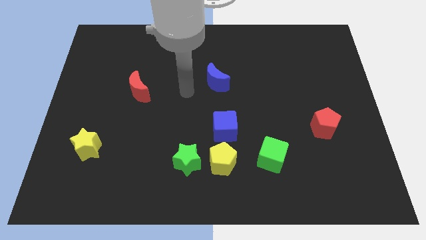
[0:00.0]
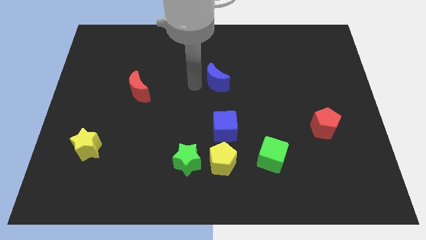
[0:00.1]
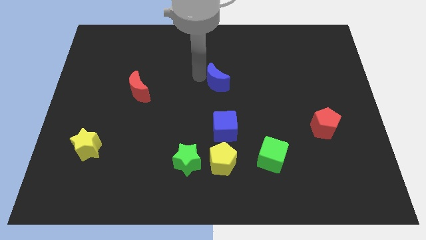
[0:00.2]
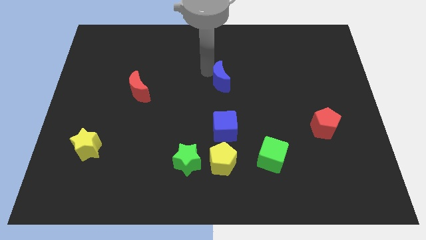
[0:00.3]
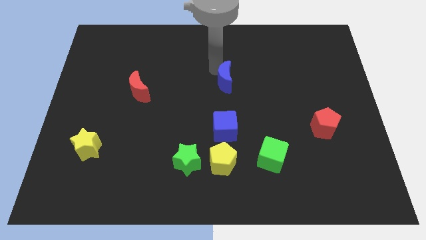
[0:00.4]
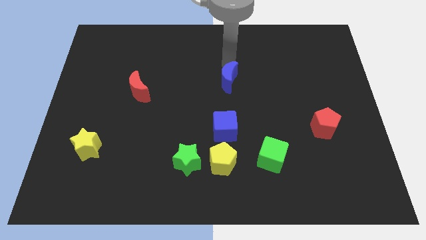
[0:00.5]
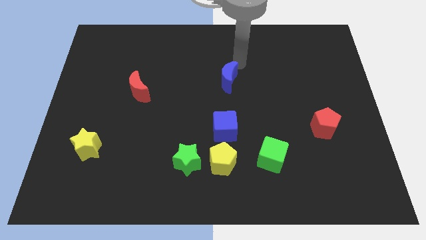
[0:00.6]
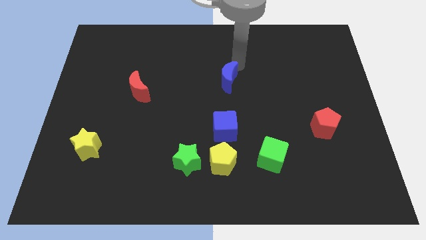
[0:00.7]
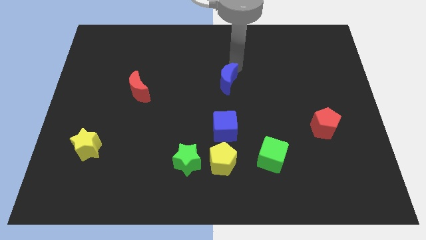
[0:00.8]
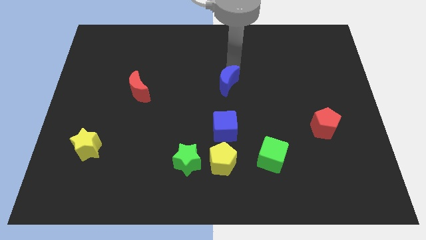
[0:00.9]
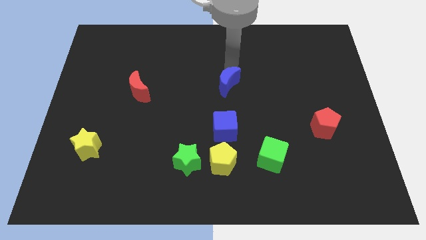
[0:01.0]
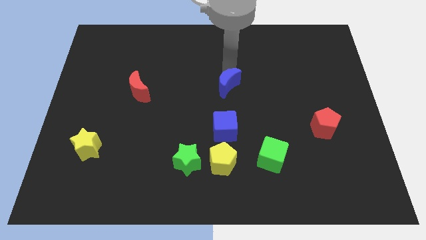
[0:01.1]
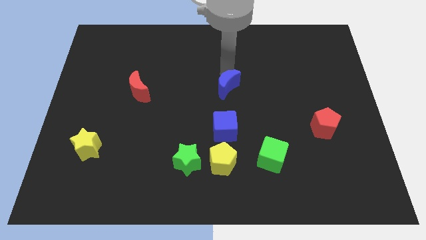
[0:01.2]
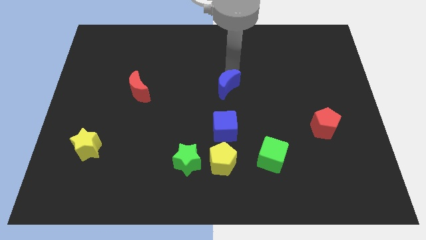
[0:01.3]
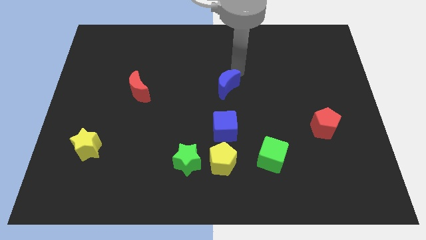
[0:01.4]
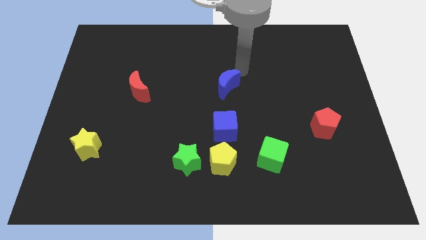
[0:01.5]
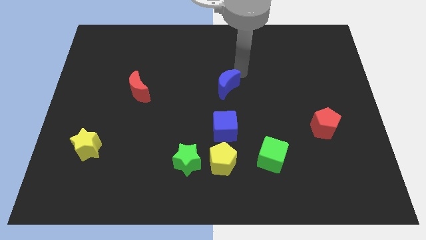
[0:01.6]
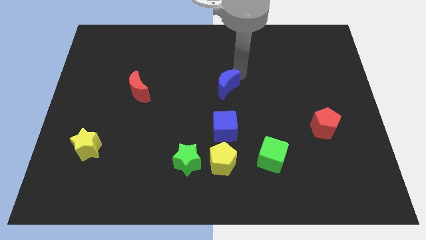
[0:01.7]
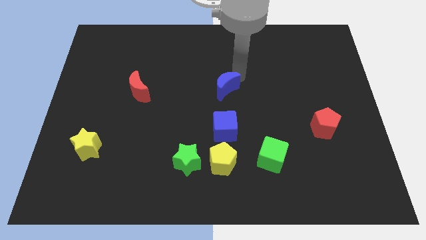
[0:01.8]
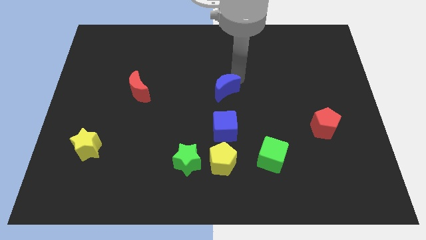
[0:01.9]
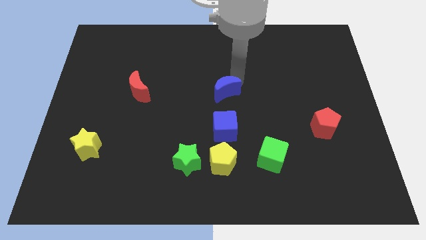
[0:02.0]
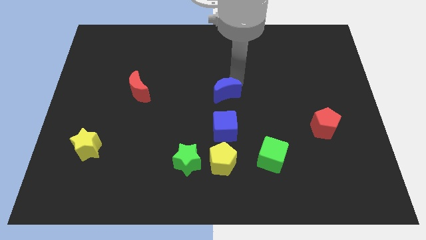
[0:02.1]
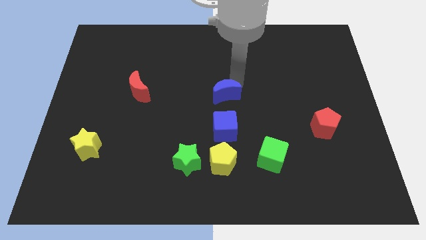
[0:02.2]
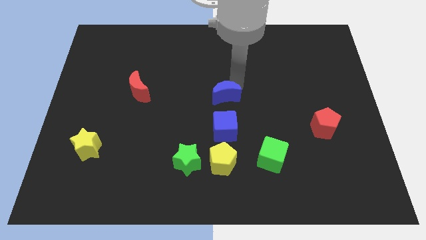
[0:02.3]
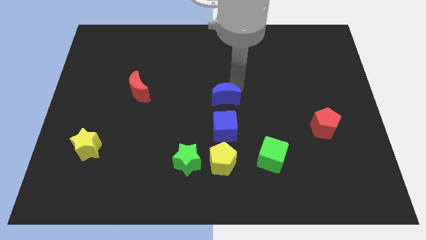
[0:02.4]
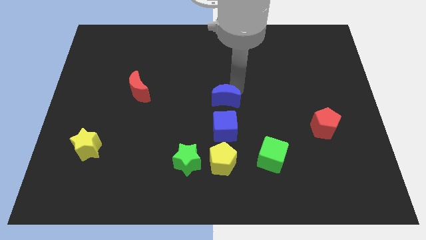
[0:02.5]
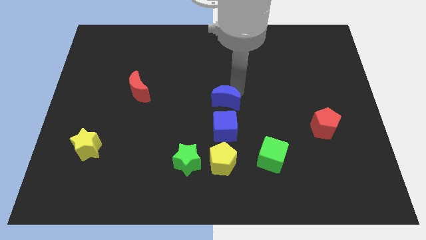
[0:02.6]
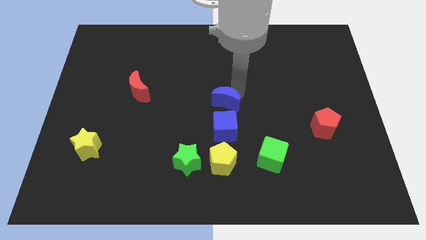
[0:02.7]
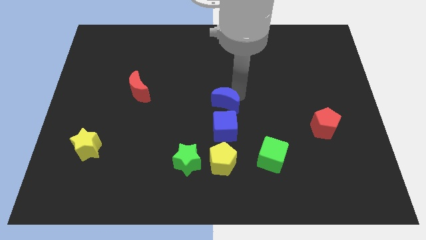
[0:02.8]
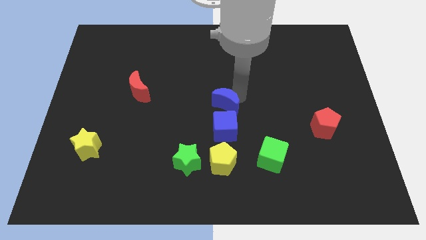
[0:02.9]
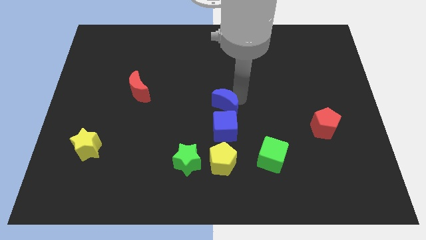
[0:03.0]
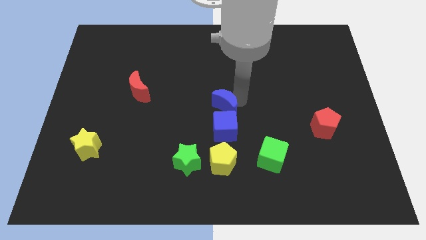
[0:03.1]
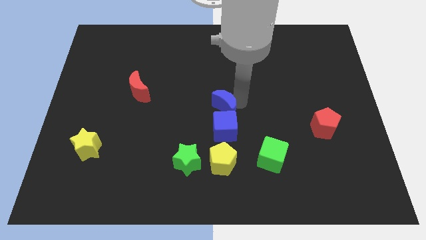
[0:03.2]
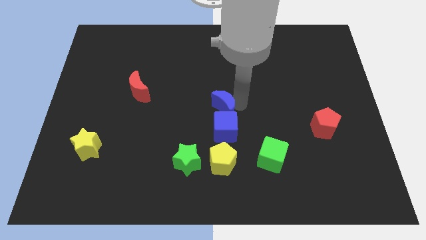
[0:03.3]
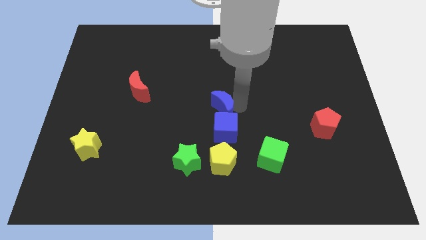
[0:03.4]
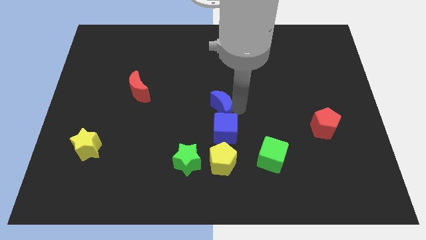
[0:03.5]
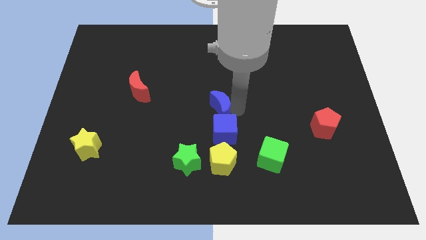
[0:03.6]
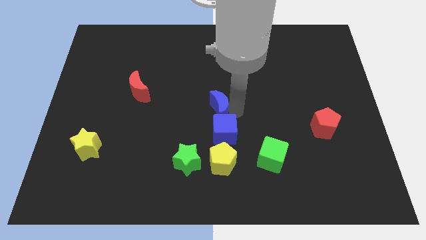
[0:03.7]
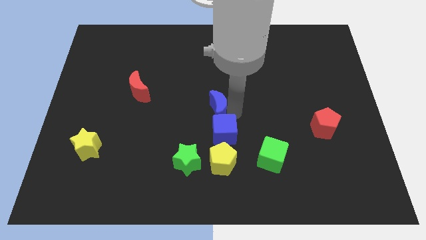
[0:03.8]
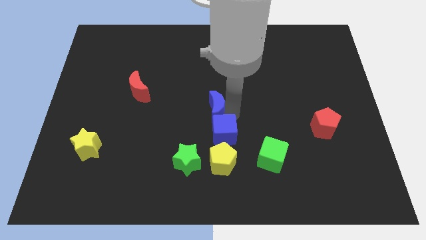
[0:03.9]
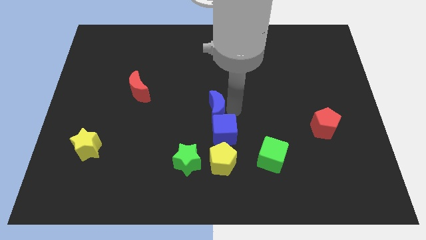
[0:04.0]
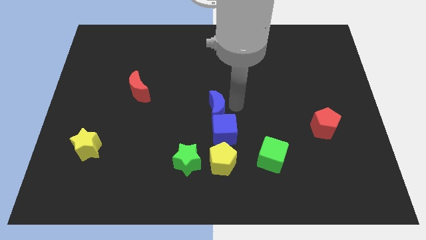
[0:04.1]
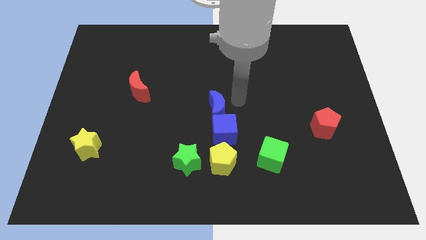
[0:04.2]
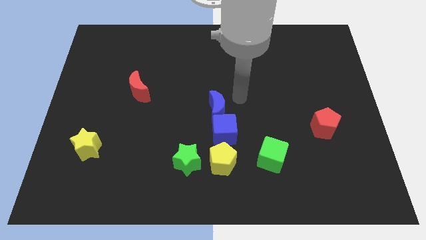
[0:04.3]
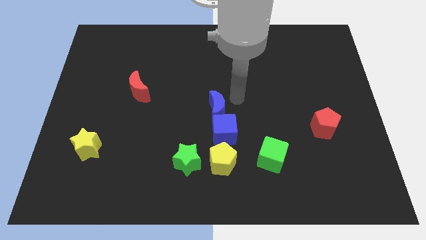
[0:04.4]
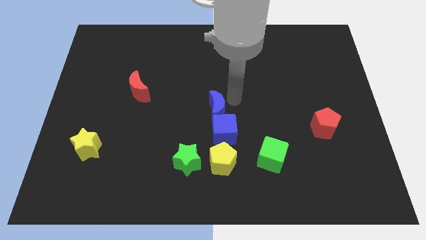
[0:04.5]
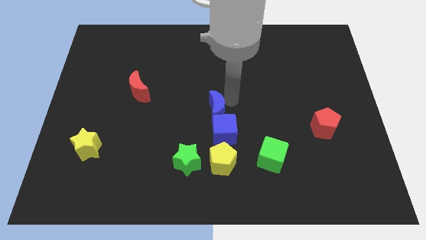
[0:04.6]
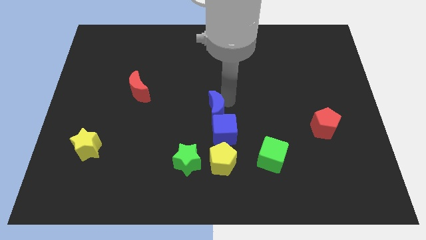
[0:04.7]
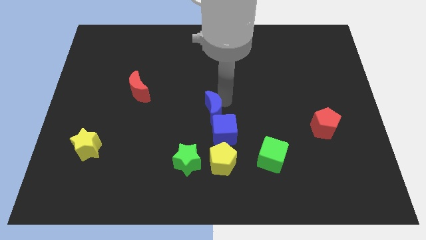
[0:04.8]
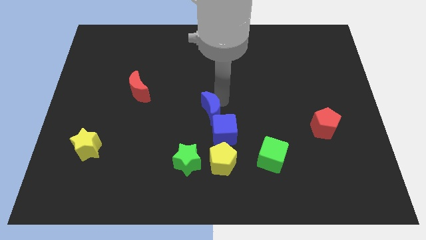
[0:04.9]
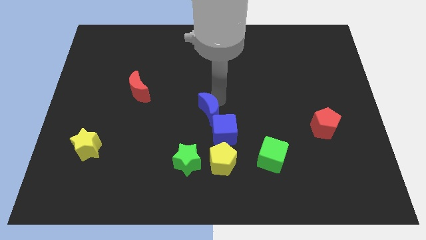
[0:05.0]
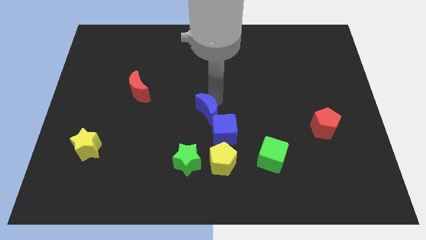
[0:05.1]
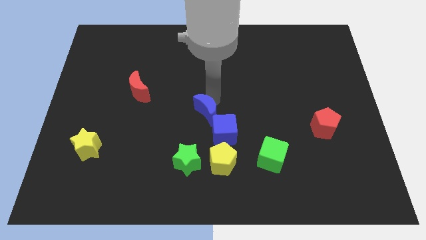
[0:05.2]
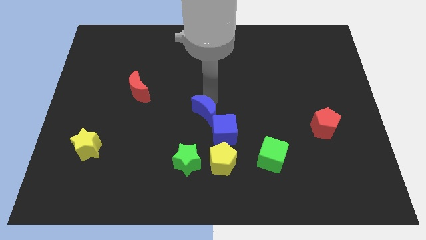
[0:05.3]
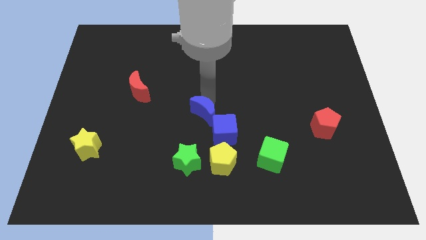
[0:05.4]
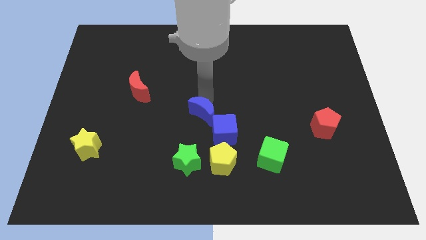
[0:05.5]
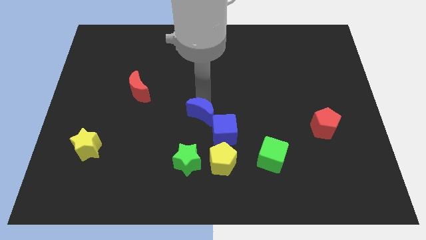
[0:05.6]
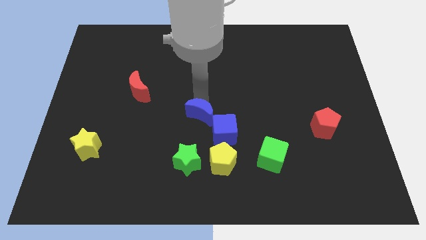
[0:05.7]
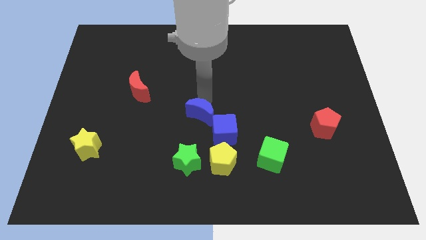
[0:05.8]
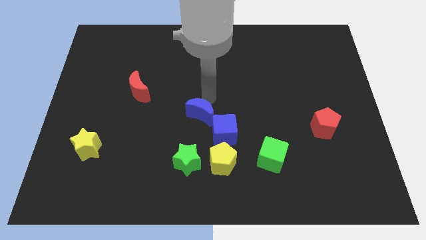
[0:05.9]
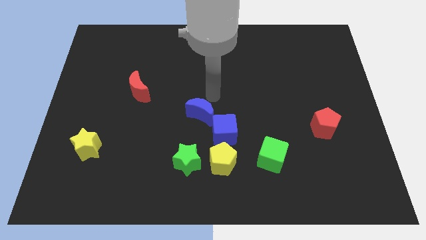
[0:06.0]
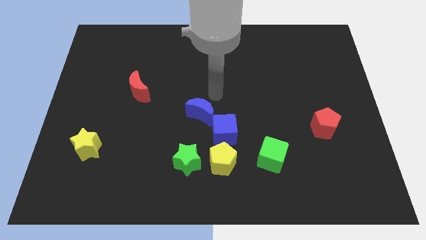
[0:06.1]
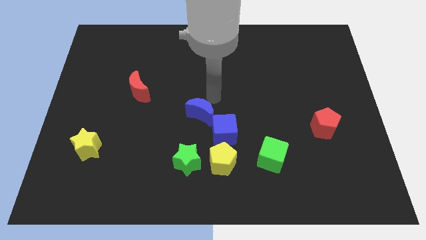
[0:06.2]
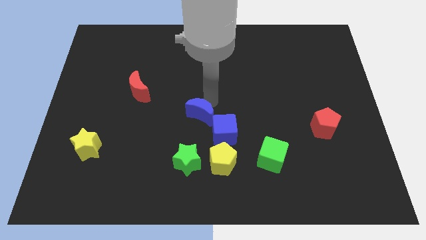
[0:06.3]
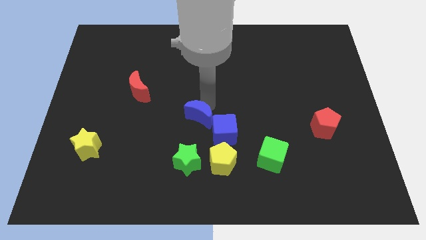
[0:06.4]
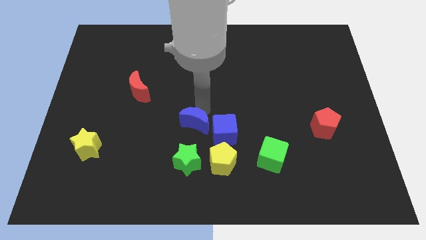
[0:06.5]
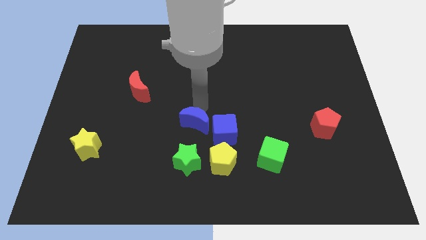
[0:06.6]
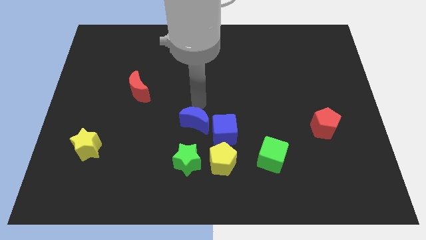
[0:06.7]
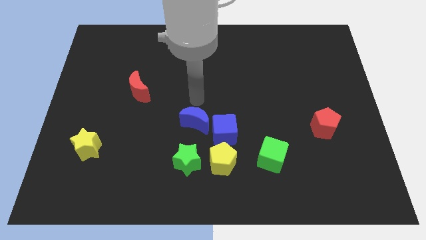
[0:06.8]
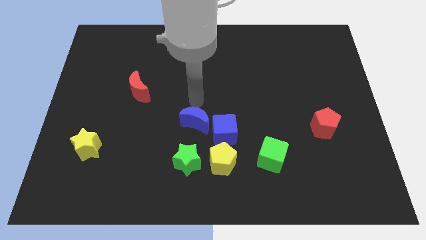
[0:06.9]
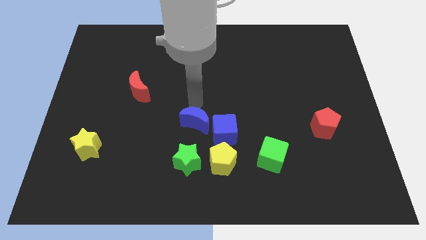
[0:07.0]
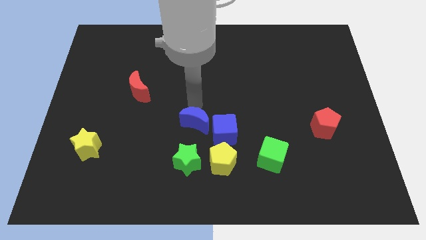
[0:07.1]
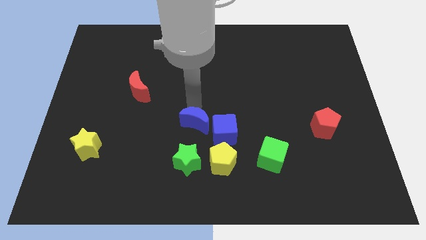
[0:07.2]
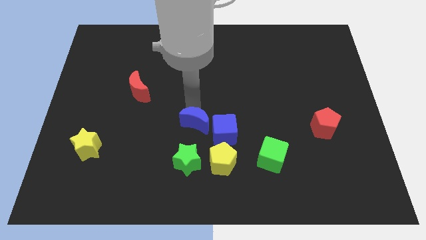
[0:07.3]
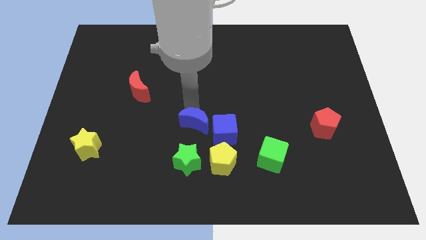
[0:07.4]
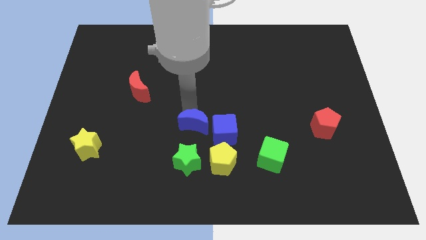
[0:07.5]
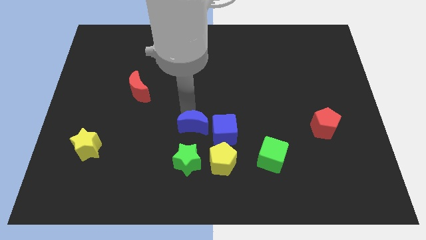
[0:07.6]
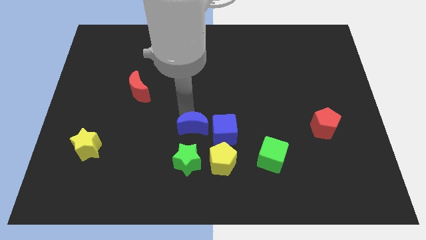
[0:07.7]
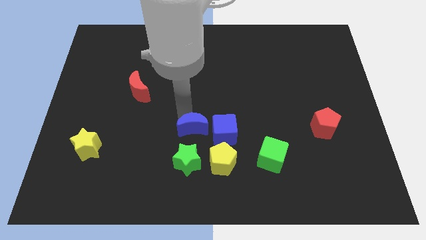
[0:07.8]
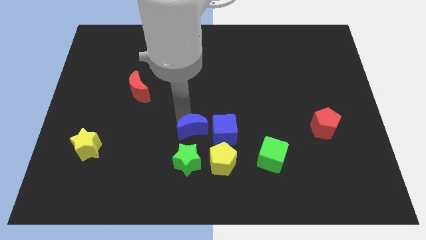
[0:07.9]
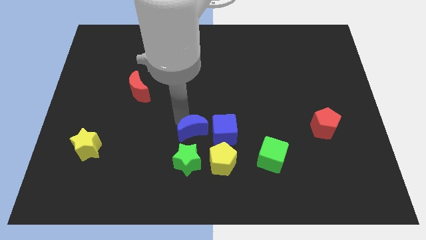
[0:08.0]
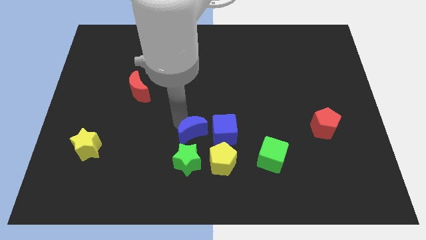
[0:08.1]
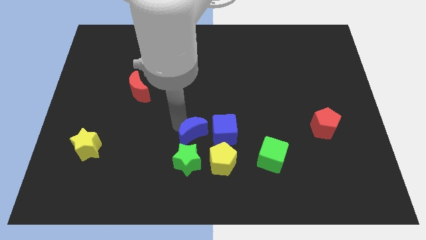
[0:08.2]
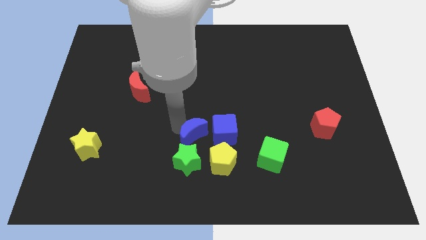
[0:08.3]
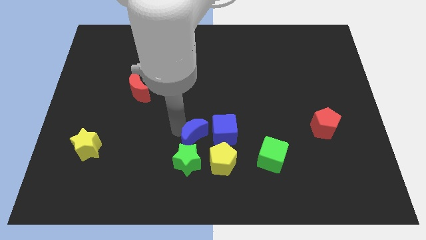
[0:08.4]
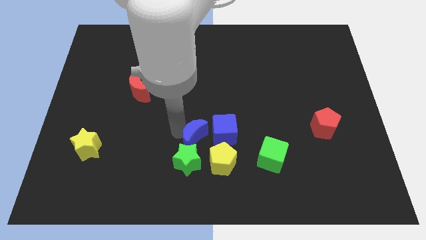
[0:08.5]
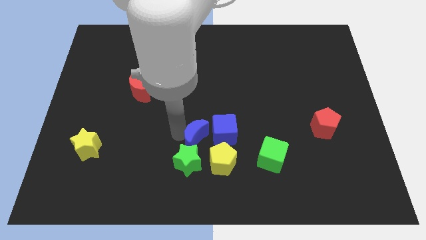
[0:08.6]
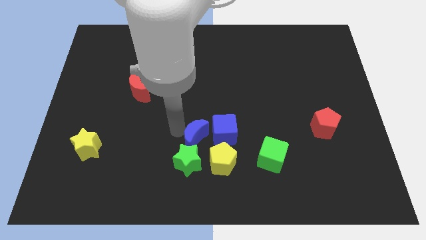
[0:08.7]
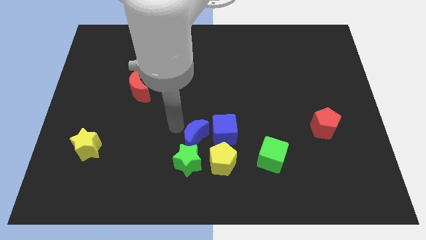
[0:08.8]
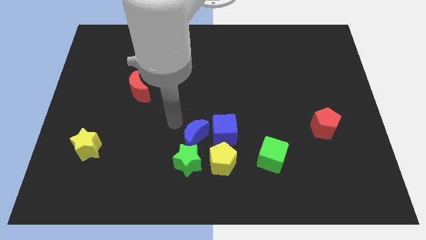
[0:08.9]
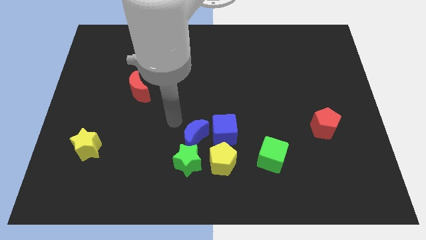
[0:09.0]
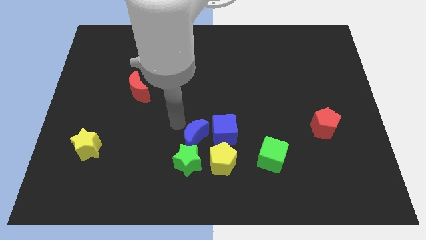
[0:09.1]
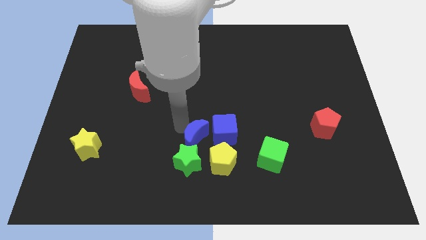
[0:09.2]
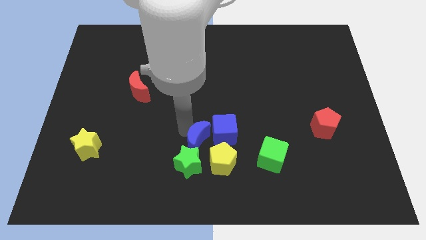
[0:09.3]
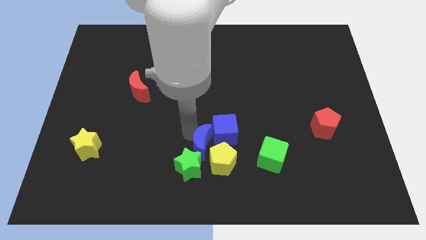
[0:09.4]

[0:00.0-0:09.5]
slide the blue moon close to the yellow pentagon
